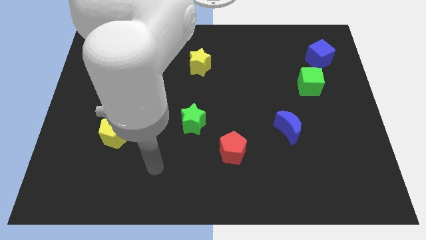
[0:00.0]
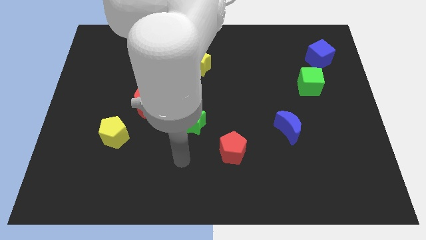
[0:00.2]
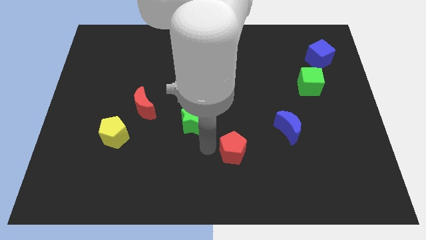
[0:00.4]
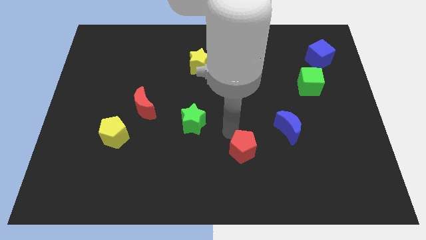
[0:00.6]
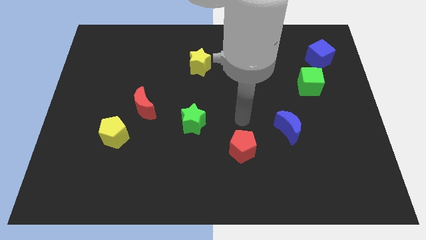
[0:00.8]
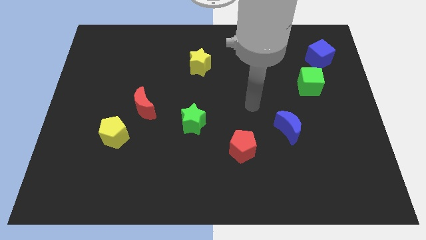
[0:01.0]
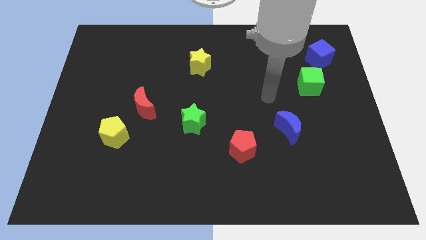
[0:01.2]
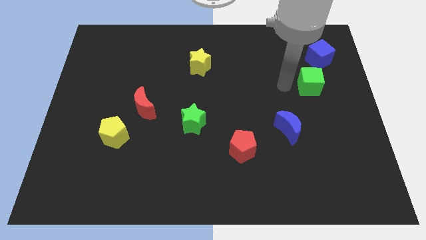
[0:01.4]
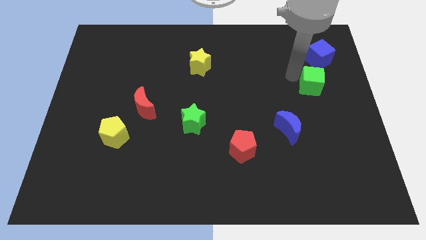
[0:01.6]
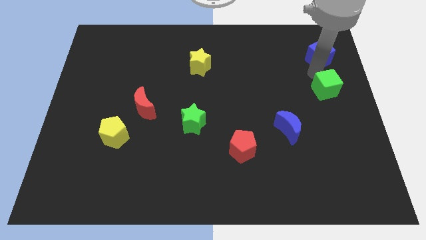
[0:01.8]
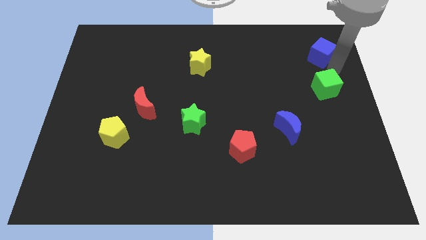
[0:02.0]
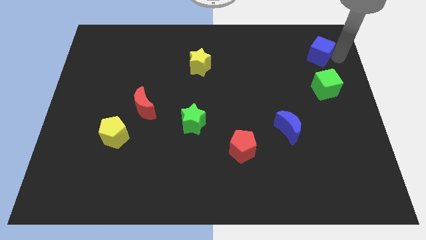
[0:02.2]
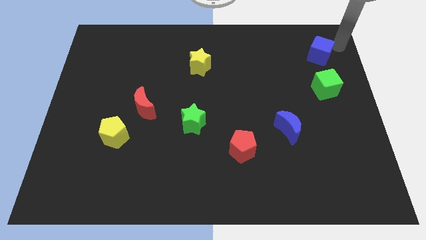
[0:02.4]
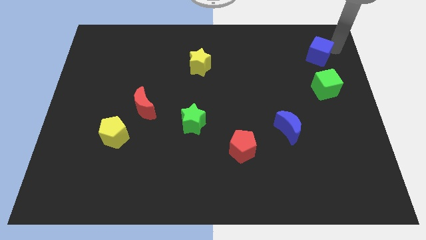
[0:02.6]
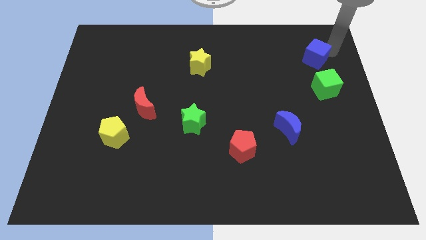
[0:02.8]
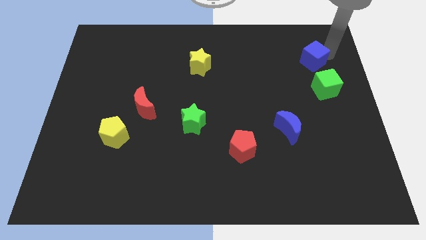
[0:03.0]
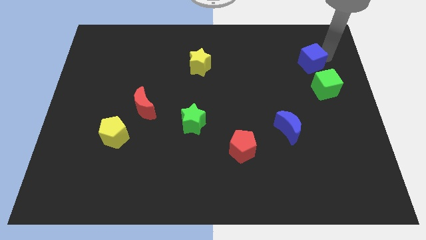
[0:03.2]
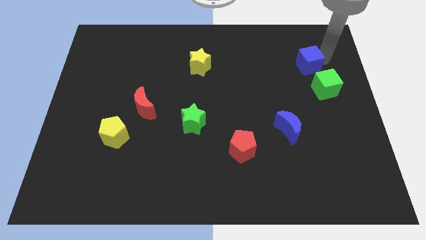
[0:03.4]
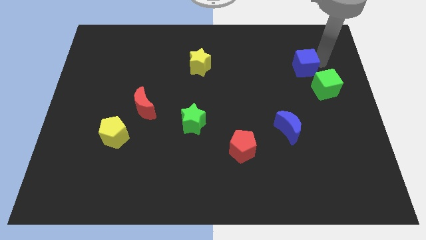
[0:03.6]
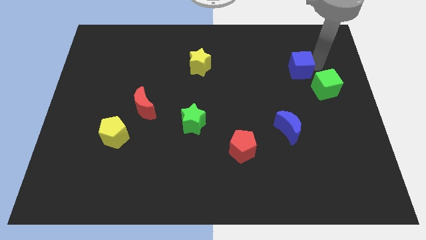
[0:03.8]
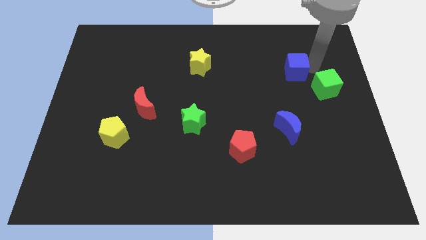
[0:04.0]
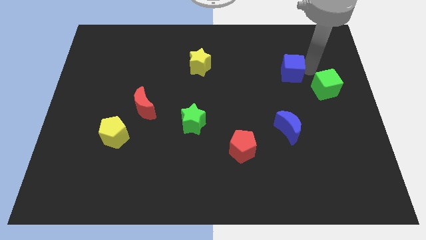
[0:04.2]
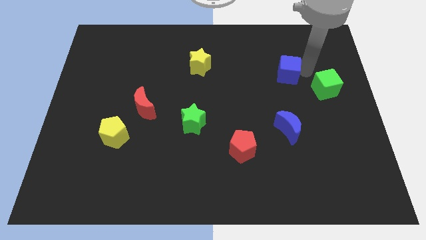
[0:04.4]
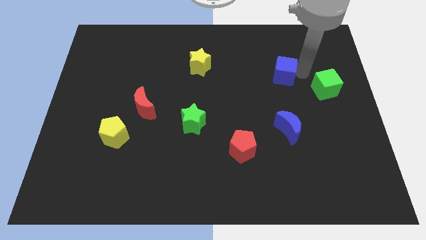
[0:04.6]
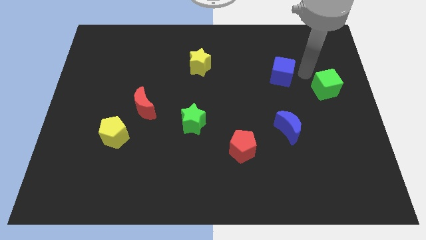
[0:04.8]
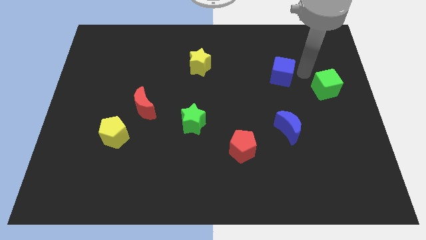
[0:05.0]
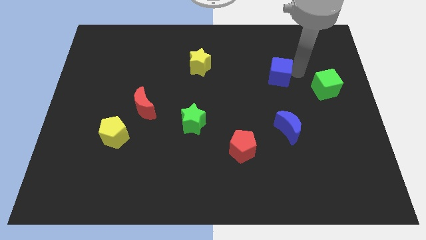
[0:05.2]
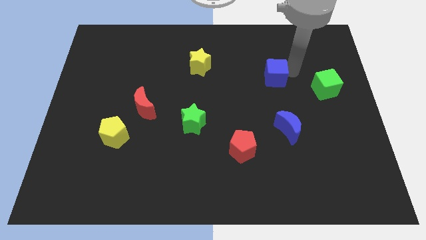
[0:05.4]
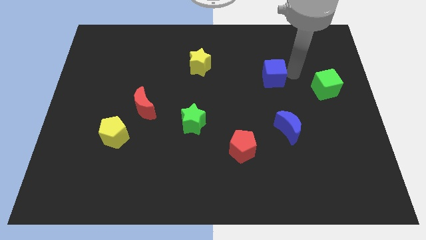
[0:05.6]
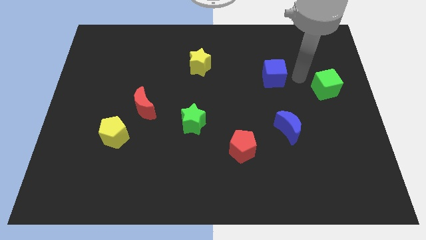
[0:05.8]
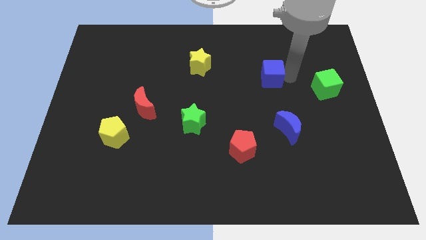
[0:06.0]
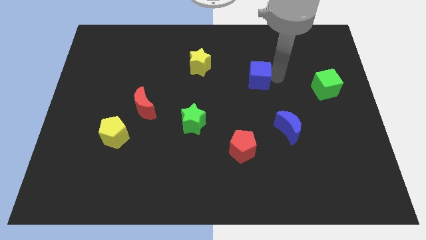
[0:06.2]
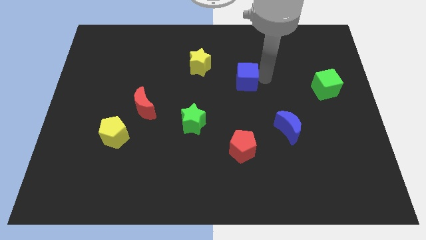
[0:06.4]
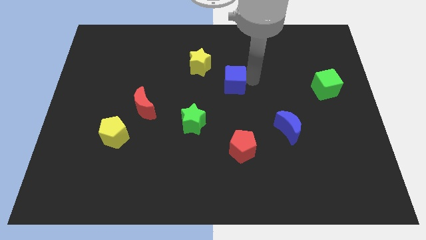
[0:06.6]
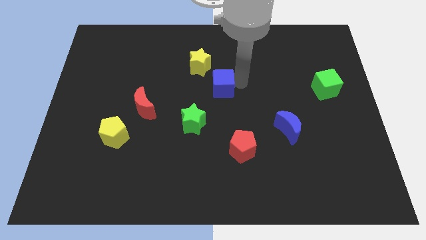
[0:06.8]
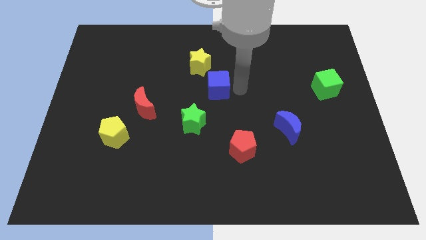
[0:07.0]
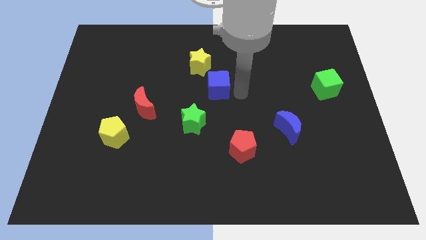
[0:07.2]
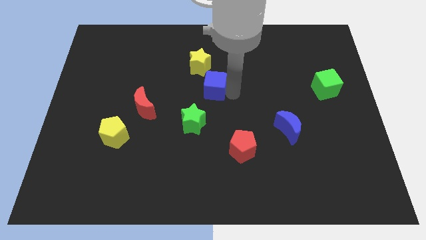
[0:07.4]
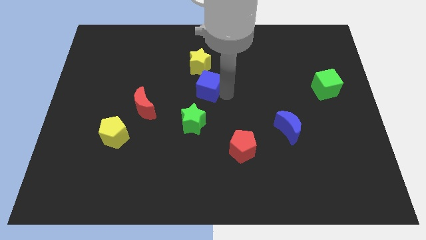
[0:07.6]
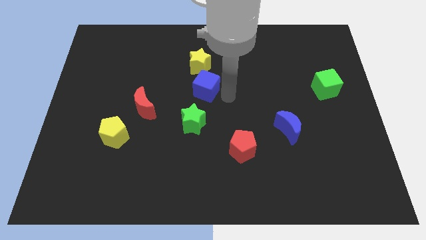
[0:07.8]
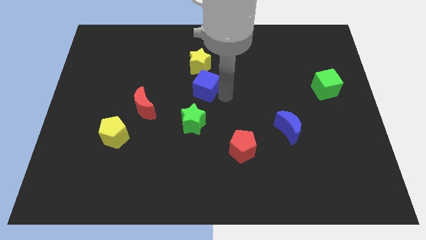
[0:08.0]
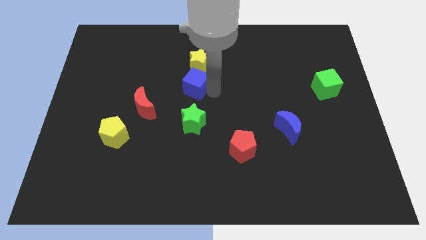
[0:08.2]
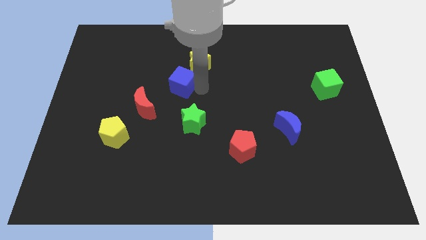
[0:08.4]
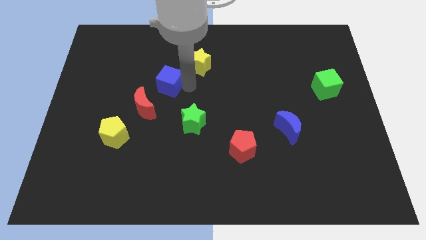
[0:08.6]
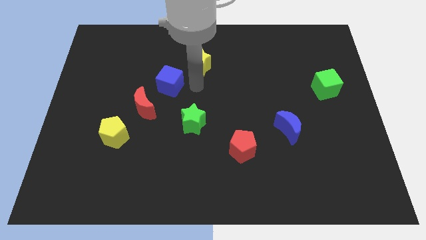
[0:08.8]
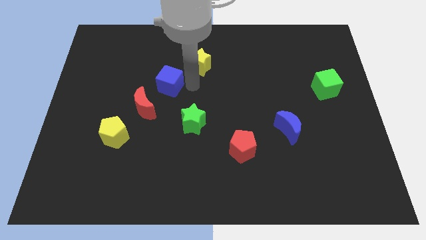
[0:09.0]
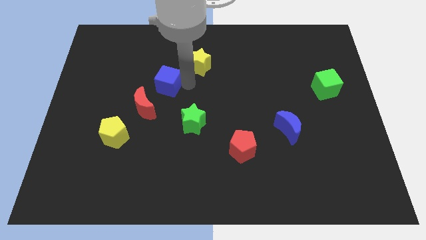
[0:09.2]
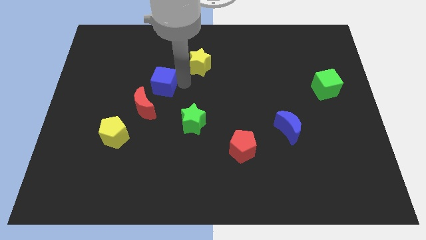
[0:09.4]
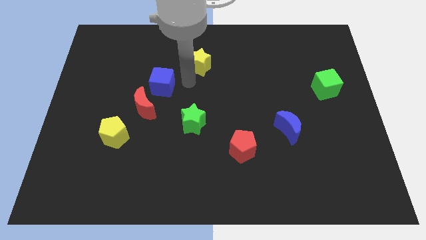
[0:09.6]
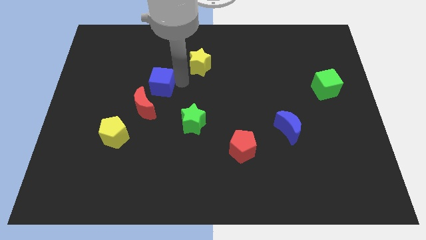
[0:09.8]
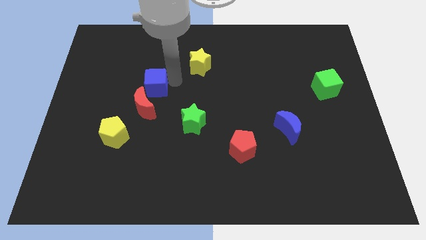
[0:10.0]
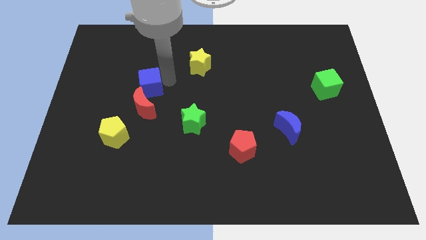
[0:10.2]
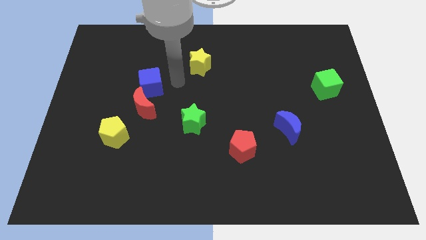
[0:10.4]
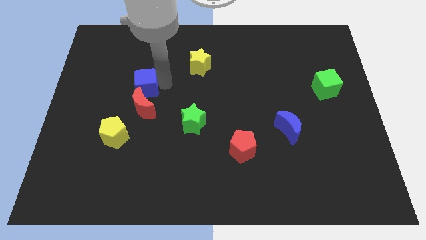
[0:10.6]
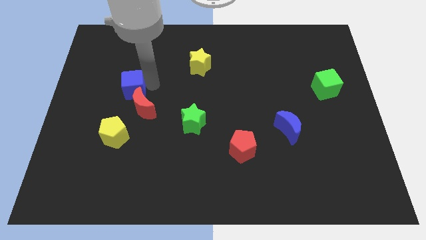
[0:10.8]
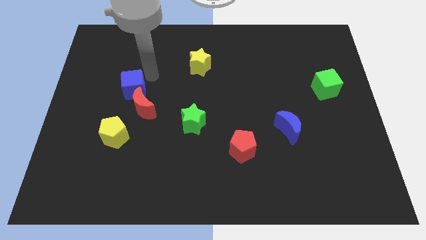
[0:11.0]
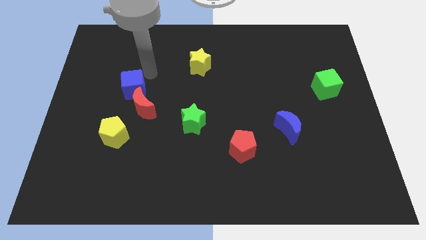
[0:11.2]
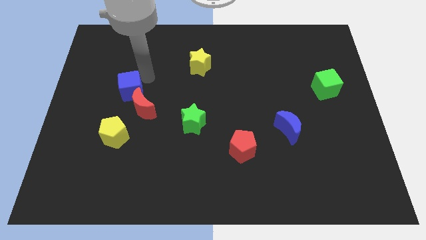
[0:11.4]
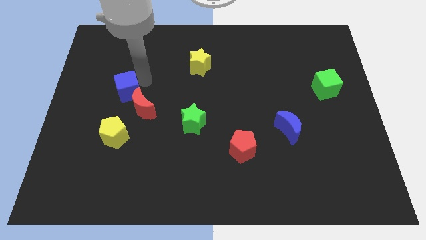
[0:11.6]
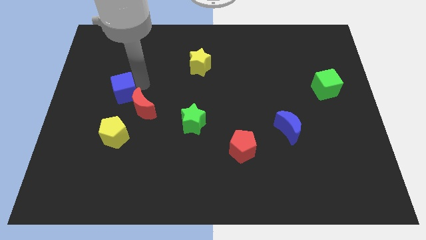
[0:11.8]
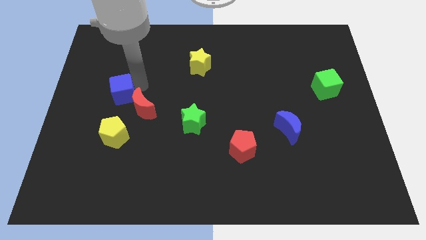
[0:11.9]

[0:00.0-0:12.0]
put the blue cube to the left of the red moon

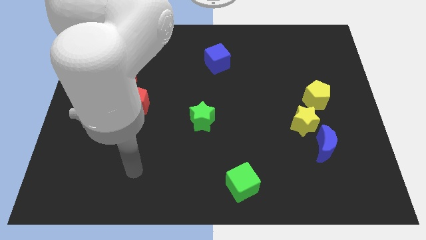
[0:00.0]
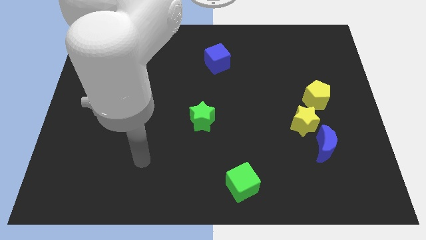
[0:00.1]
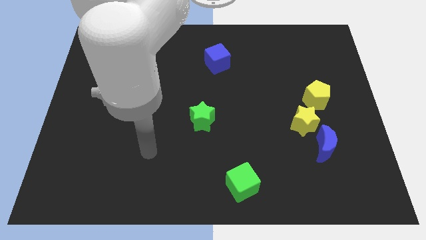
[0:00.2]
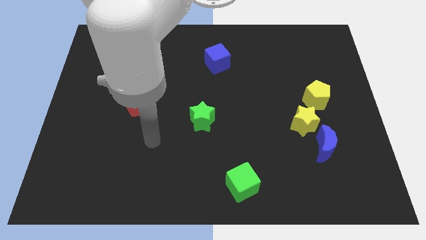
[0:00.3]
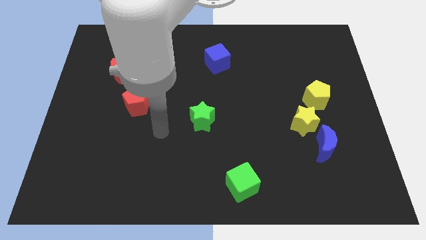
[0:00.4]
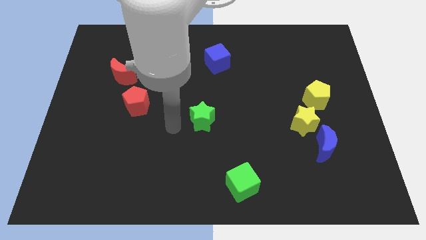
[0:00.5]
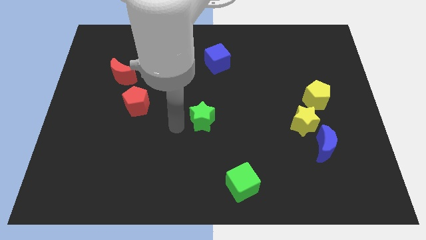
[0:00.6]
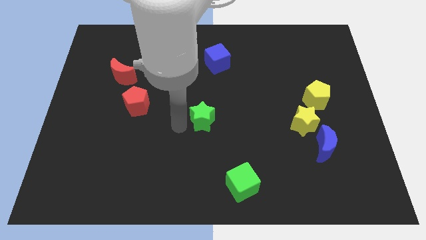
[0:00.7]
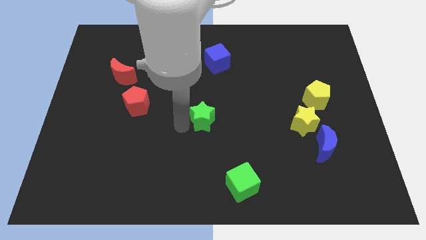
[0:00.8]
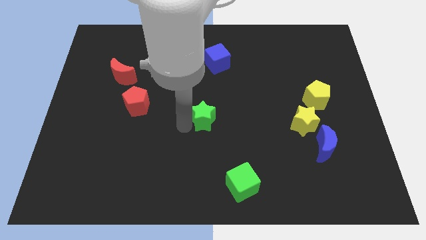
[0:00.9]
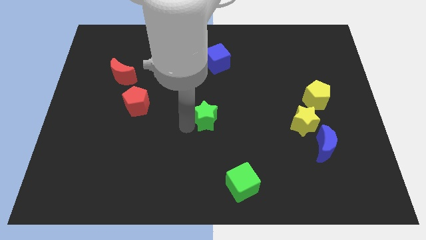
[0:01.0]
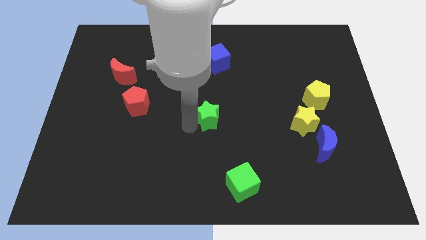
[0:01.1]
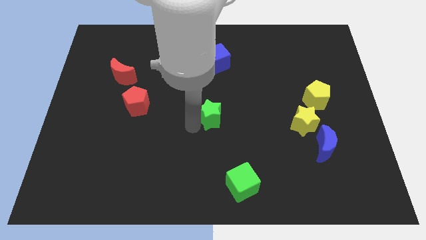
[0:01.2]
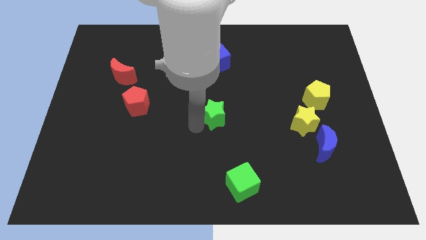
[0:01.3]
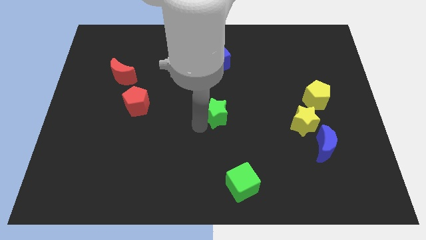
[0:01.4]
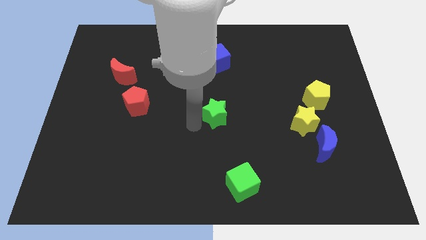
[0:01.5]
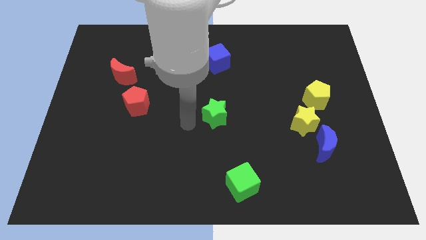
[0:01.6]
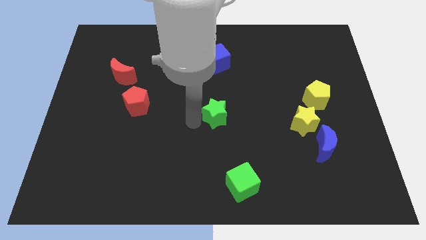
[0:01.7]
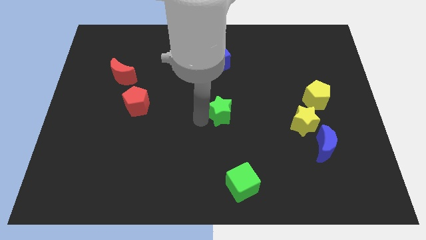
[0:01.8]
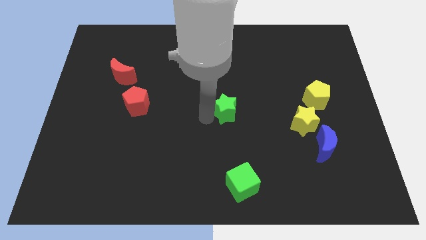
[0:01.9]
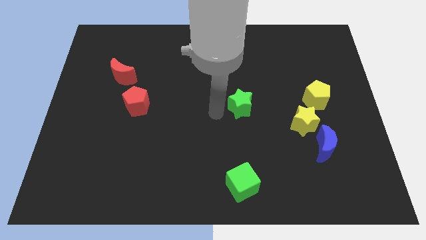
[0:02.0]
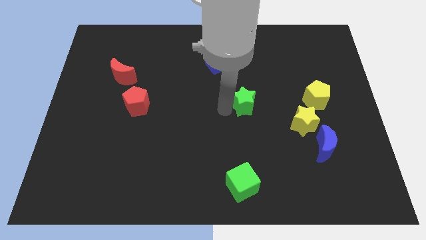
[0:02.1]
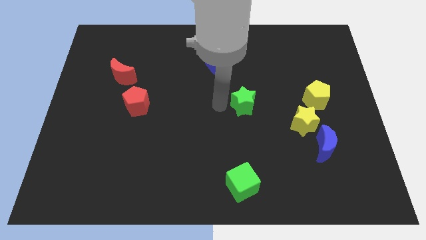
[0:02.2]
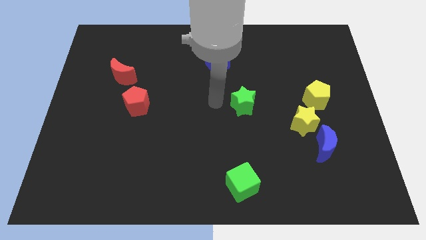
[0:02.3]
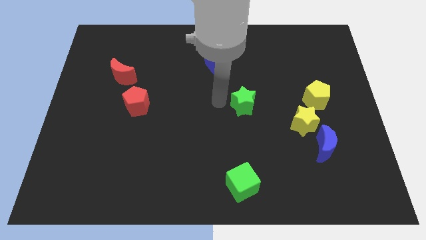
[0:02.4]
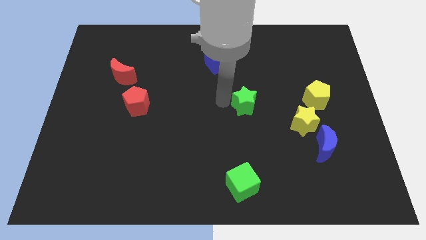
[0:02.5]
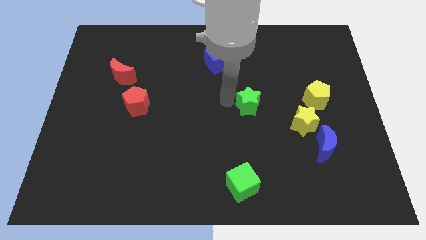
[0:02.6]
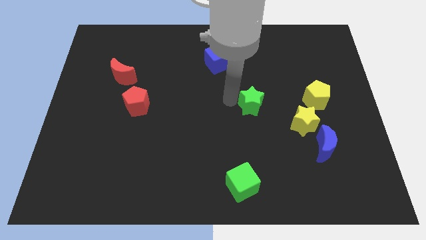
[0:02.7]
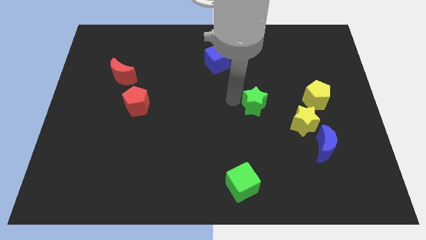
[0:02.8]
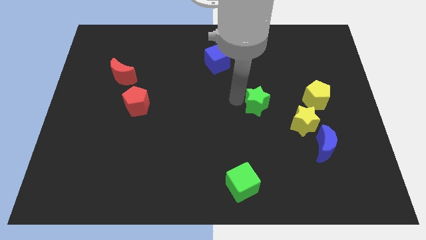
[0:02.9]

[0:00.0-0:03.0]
slide the green star to the top left of the yellow star
